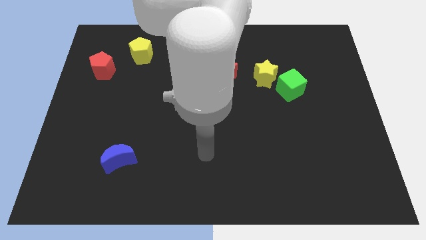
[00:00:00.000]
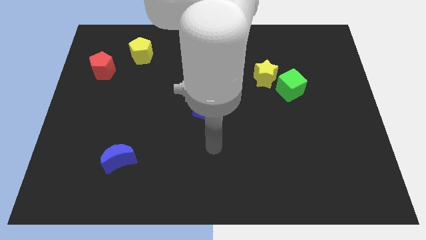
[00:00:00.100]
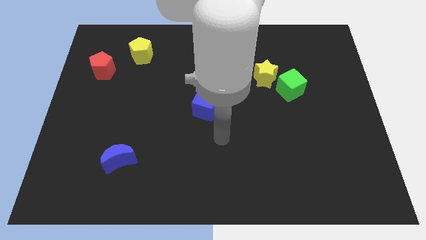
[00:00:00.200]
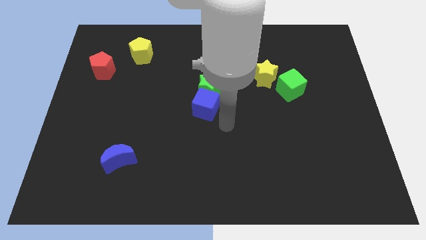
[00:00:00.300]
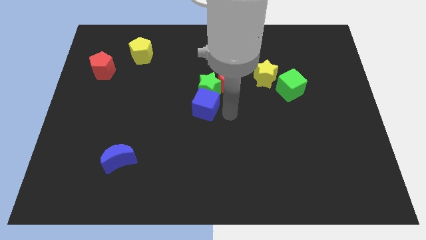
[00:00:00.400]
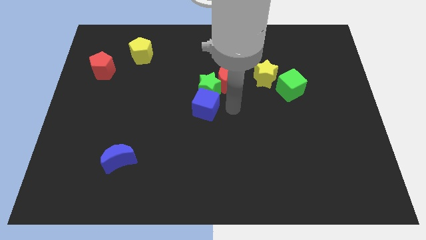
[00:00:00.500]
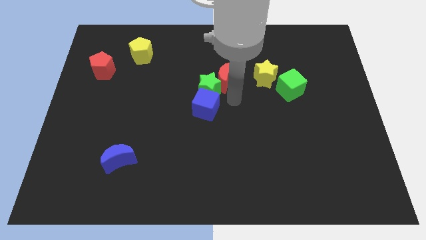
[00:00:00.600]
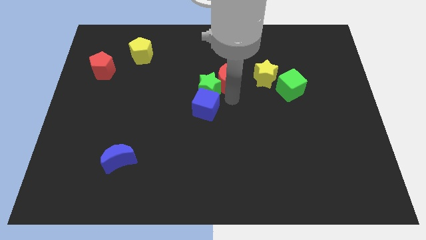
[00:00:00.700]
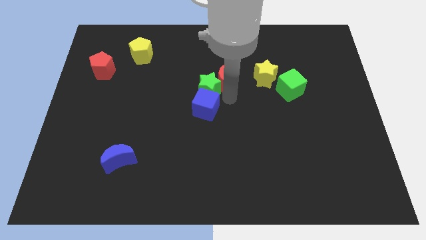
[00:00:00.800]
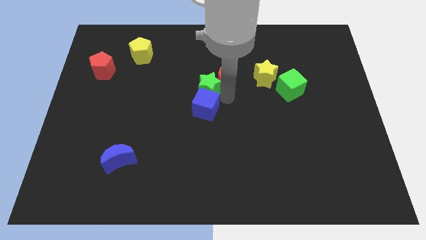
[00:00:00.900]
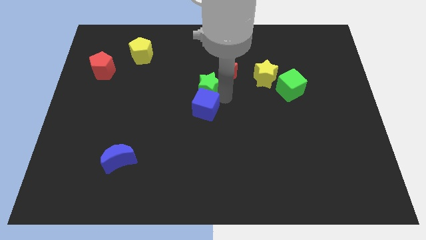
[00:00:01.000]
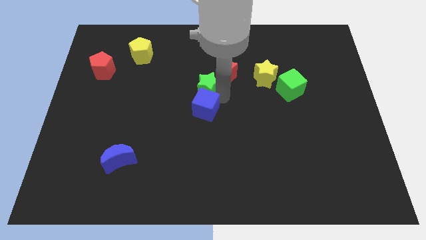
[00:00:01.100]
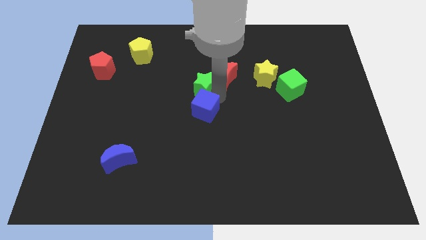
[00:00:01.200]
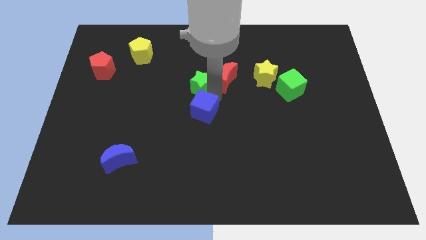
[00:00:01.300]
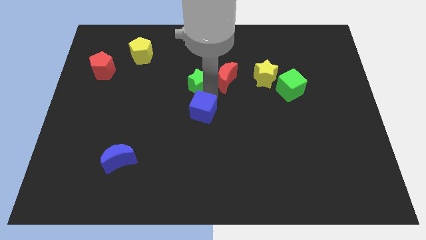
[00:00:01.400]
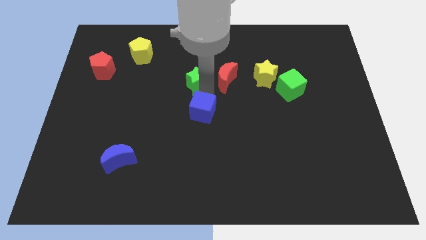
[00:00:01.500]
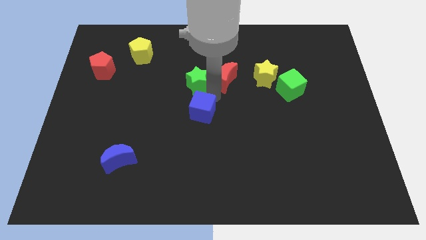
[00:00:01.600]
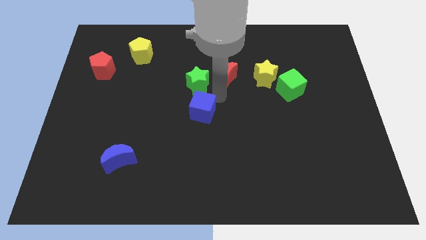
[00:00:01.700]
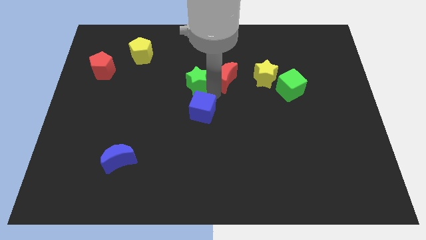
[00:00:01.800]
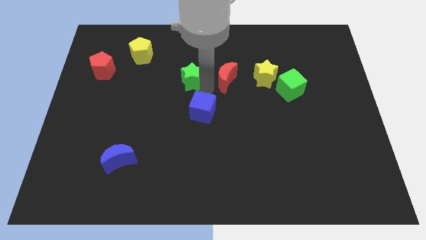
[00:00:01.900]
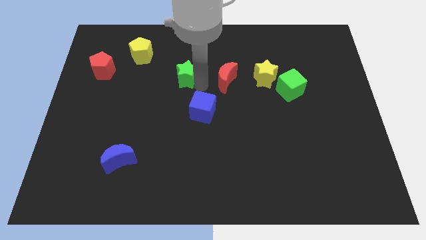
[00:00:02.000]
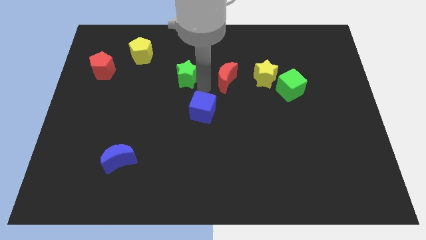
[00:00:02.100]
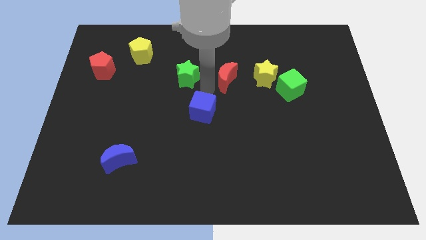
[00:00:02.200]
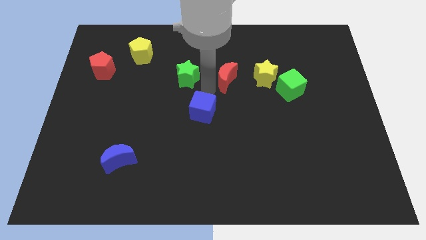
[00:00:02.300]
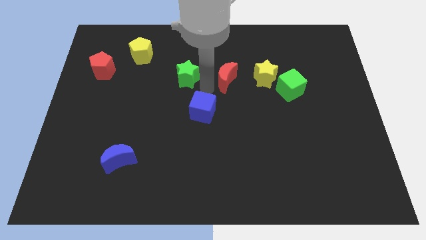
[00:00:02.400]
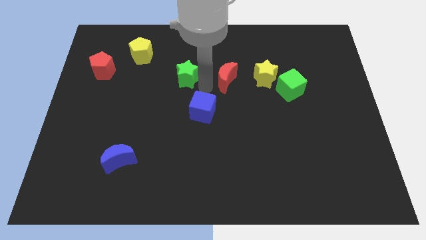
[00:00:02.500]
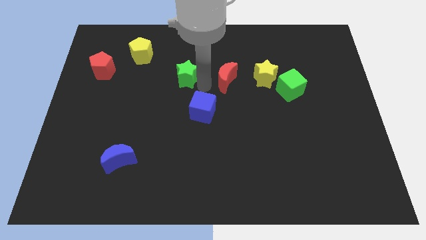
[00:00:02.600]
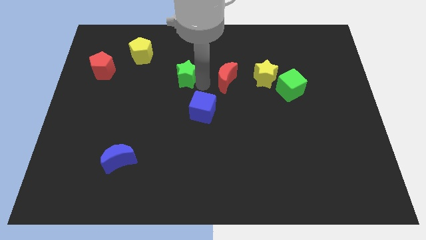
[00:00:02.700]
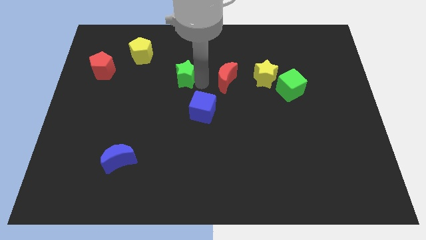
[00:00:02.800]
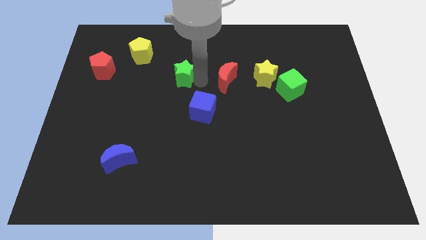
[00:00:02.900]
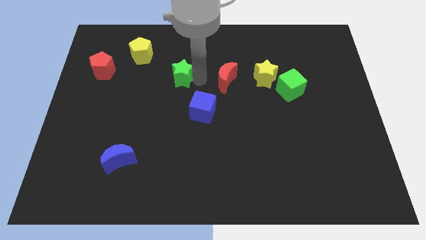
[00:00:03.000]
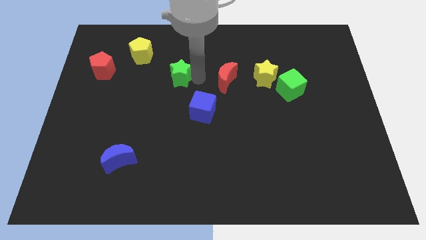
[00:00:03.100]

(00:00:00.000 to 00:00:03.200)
move the green star away from the red moon and blue cube

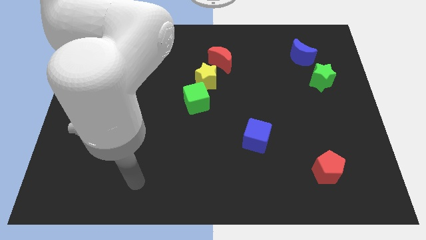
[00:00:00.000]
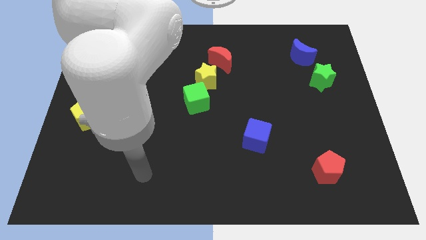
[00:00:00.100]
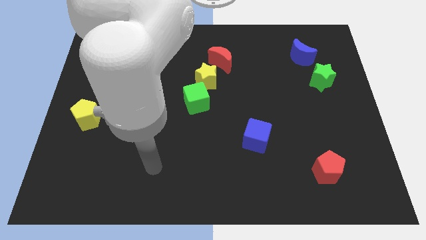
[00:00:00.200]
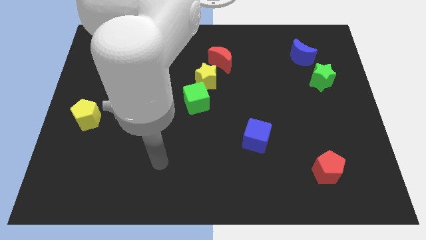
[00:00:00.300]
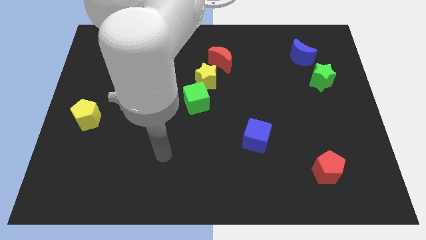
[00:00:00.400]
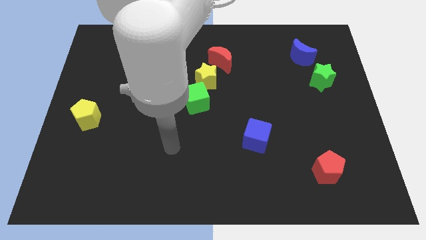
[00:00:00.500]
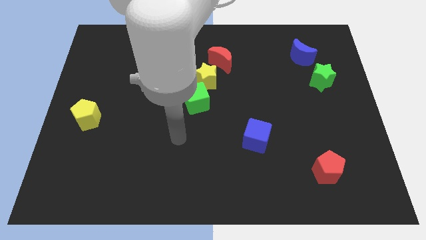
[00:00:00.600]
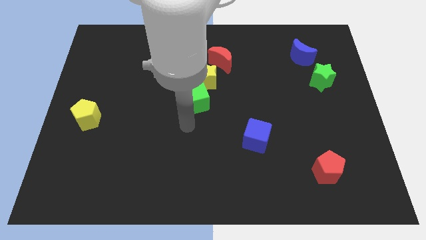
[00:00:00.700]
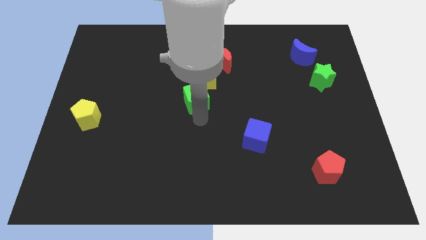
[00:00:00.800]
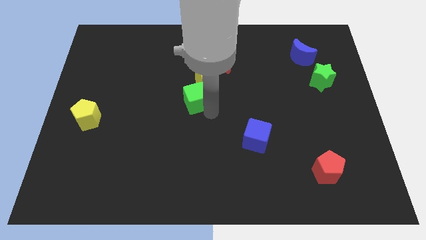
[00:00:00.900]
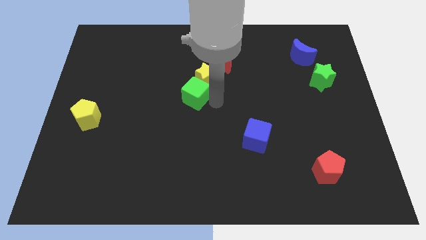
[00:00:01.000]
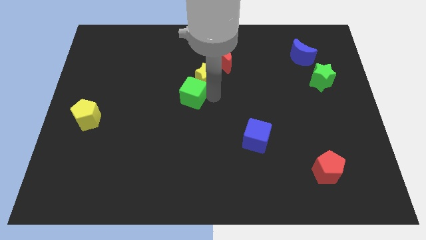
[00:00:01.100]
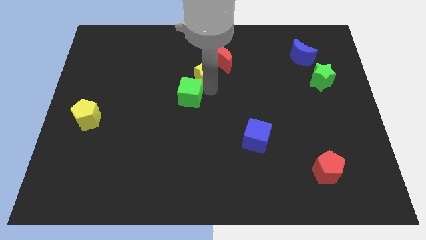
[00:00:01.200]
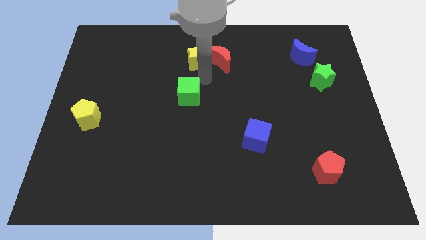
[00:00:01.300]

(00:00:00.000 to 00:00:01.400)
pull the green cube apart from the yellow star

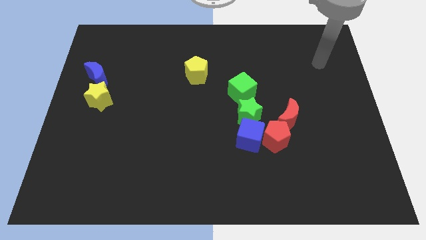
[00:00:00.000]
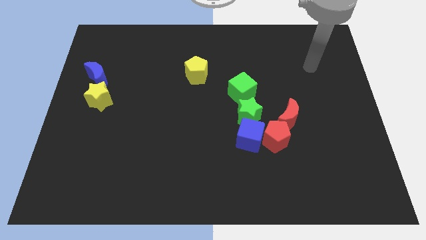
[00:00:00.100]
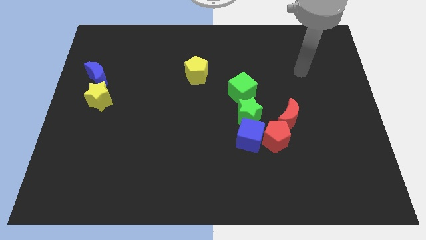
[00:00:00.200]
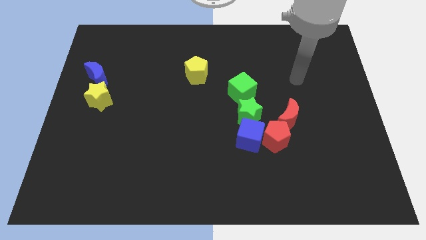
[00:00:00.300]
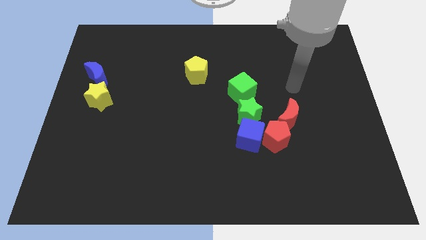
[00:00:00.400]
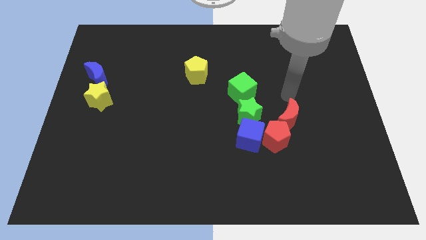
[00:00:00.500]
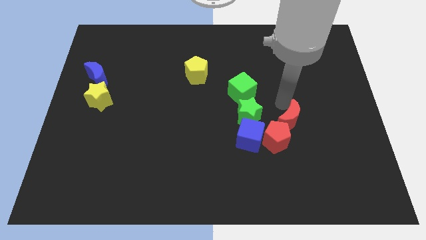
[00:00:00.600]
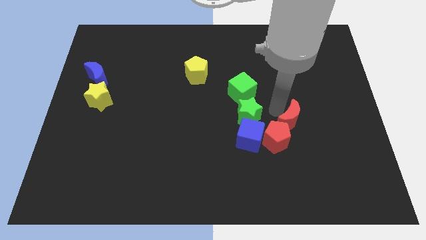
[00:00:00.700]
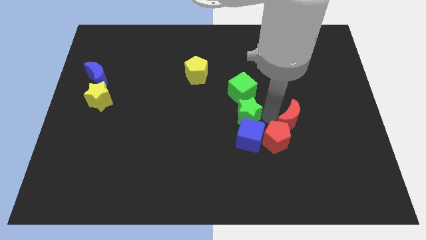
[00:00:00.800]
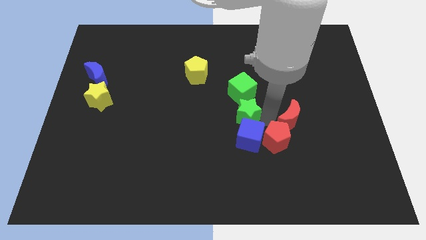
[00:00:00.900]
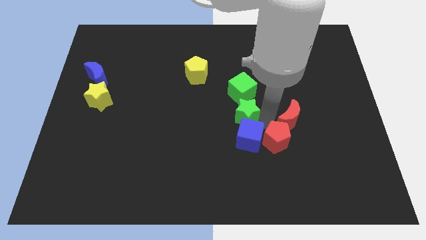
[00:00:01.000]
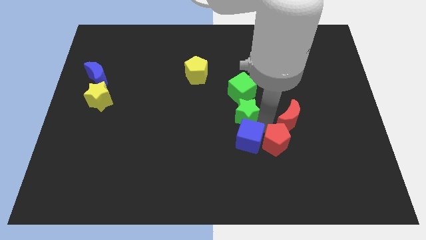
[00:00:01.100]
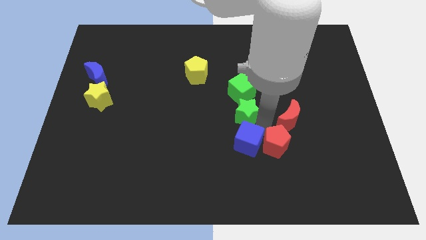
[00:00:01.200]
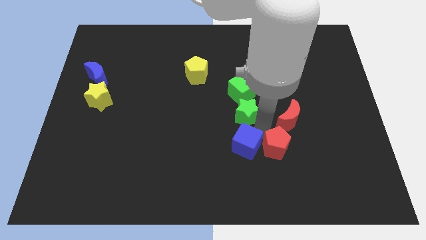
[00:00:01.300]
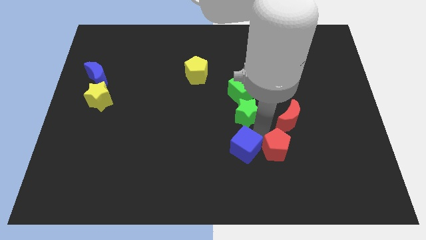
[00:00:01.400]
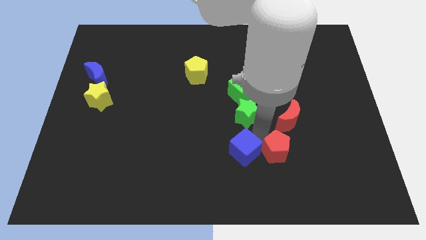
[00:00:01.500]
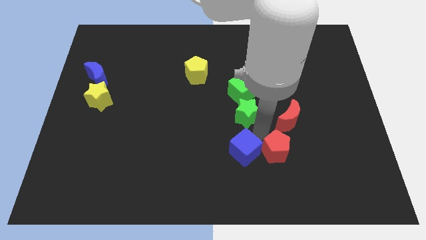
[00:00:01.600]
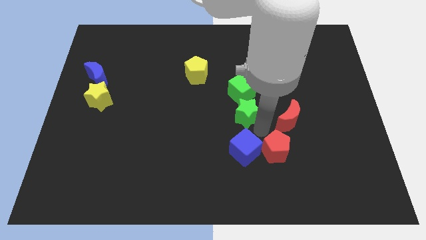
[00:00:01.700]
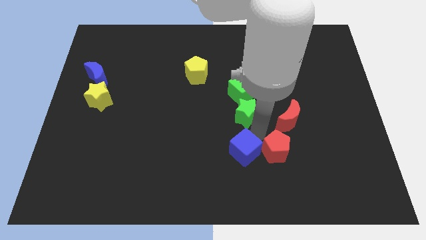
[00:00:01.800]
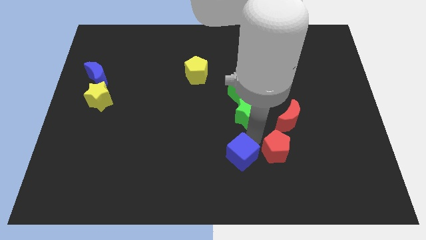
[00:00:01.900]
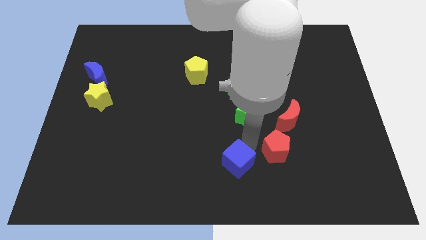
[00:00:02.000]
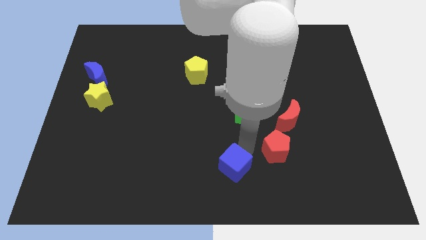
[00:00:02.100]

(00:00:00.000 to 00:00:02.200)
separate the blue cube from the red pentagon and green star

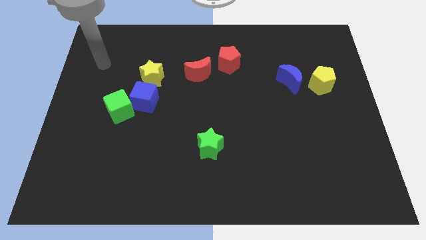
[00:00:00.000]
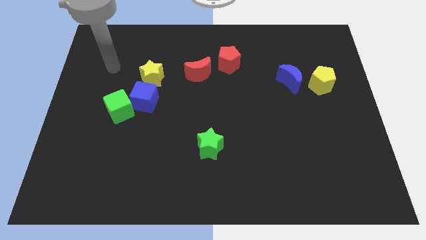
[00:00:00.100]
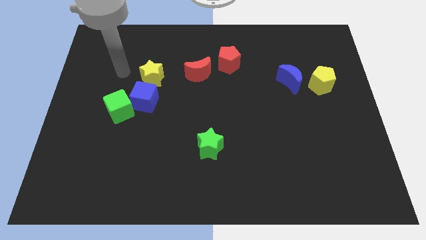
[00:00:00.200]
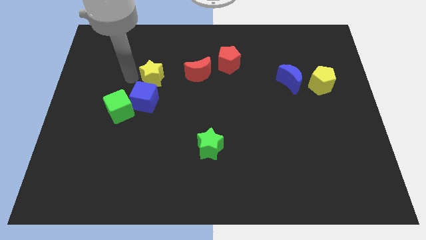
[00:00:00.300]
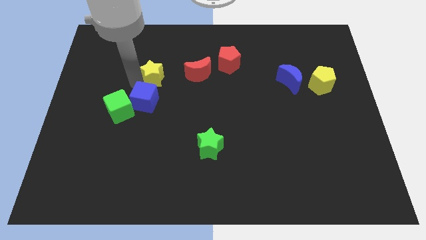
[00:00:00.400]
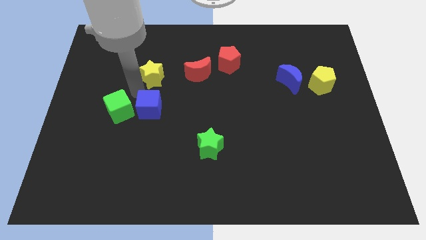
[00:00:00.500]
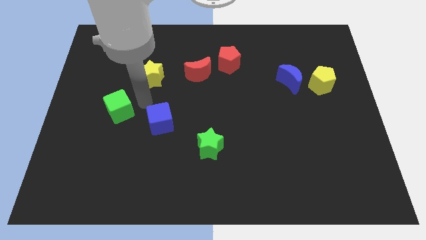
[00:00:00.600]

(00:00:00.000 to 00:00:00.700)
pull the green cube apart from the blue cube

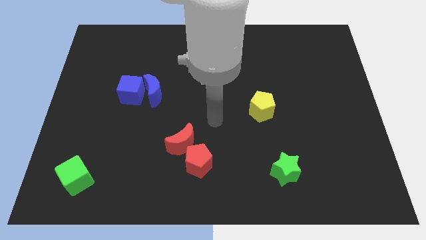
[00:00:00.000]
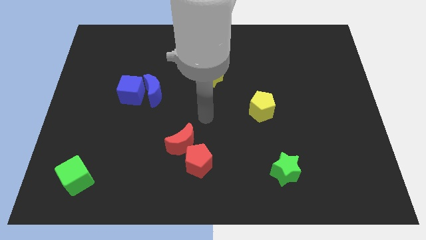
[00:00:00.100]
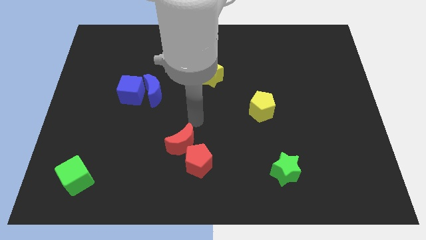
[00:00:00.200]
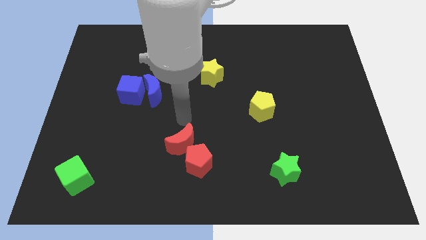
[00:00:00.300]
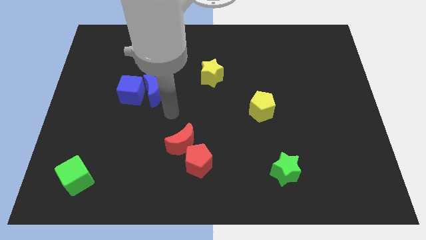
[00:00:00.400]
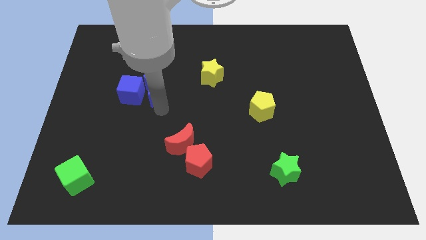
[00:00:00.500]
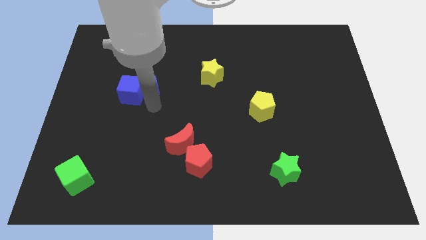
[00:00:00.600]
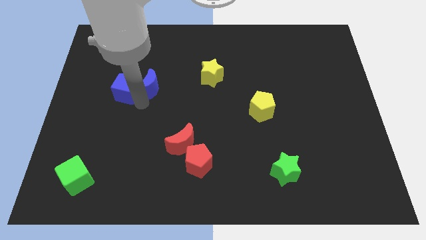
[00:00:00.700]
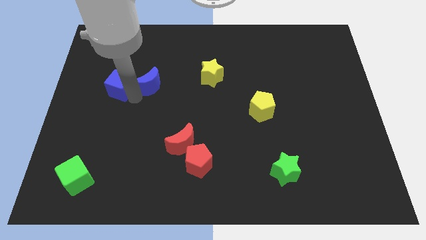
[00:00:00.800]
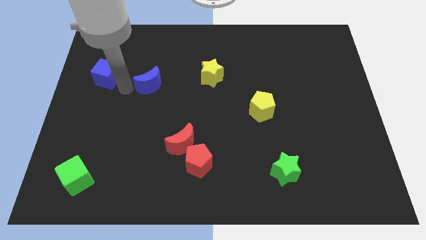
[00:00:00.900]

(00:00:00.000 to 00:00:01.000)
separate the blue moon from the blue cube

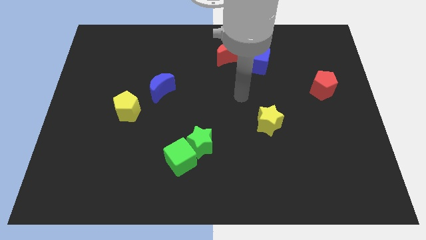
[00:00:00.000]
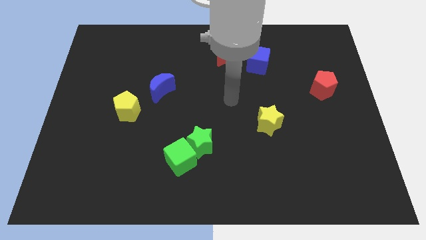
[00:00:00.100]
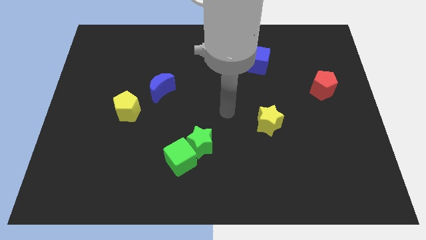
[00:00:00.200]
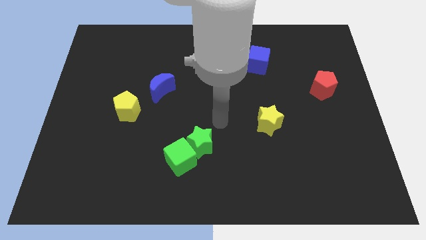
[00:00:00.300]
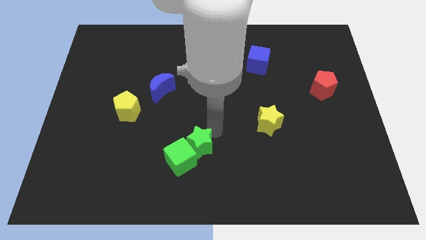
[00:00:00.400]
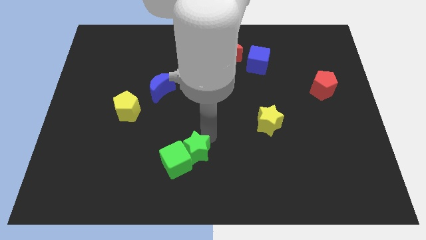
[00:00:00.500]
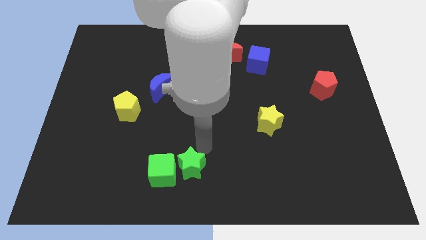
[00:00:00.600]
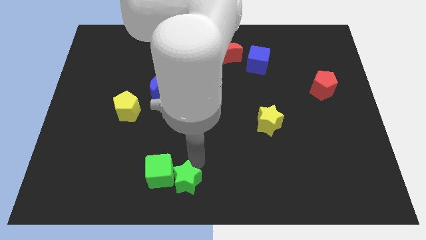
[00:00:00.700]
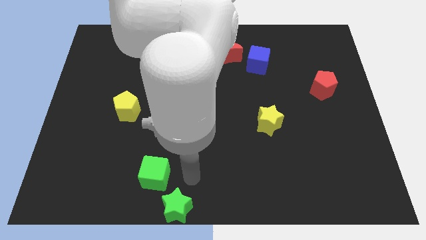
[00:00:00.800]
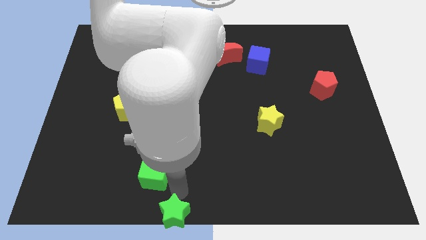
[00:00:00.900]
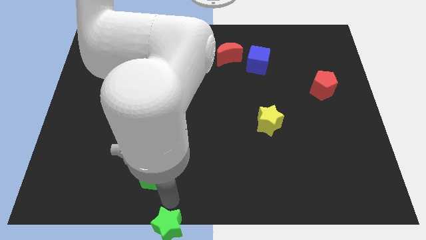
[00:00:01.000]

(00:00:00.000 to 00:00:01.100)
separate the green cube from the green star
